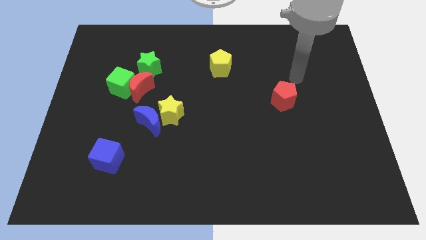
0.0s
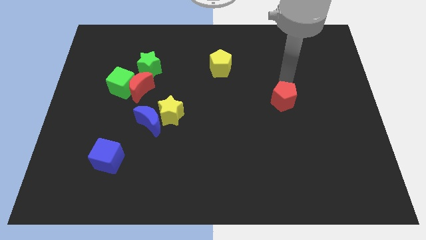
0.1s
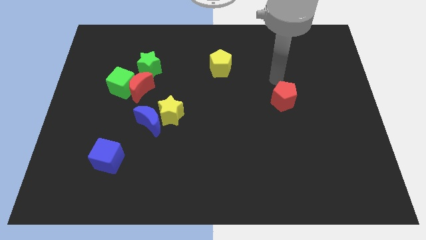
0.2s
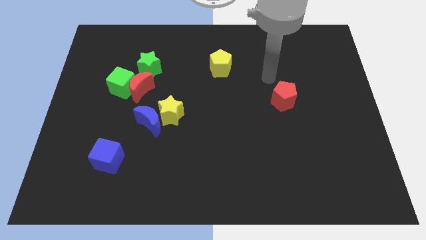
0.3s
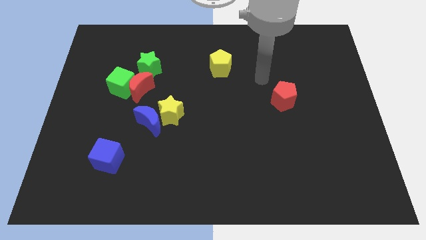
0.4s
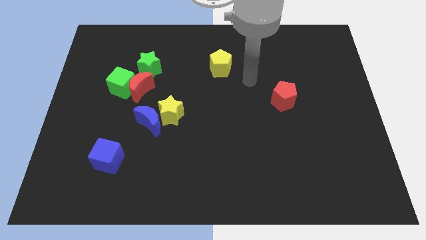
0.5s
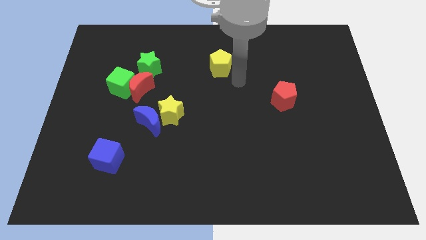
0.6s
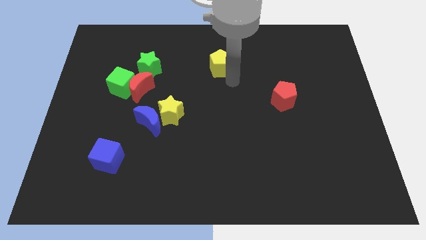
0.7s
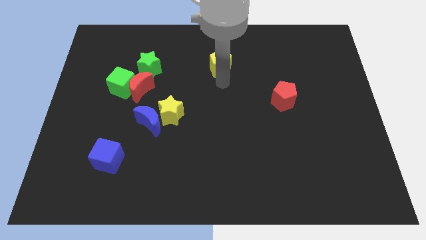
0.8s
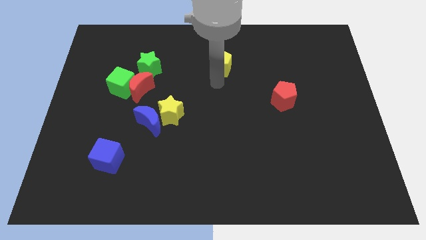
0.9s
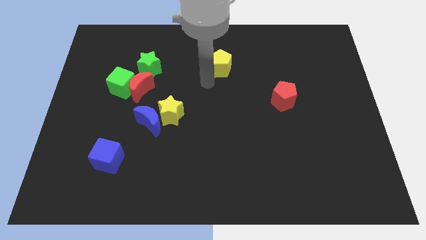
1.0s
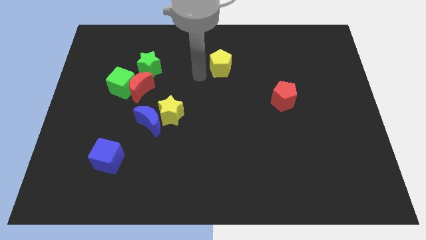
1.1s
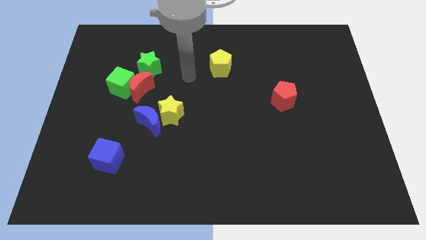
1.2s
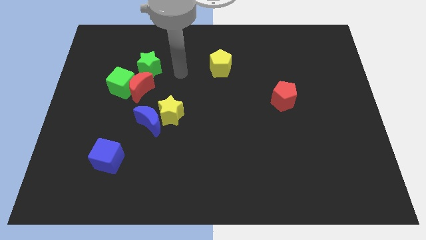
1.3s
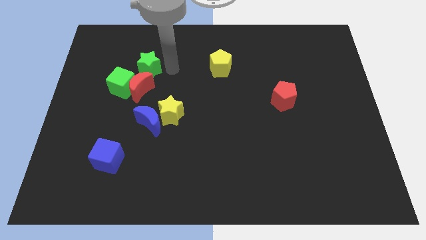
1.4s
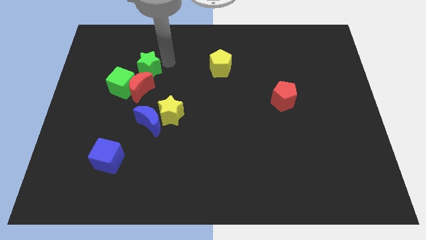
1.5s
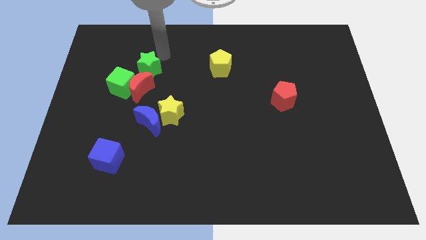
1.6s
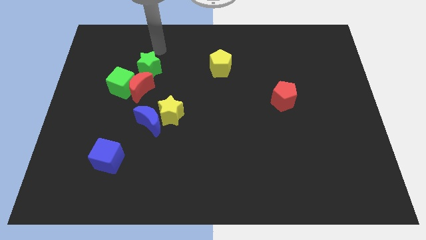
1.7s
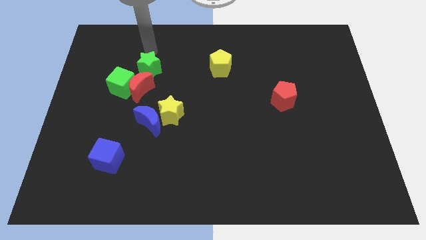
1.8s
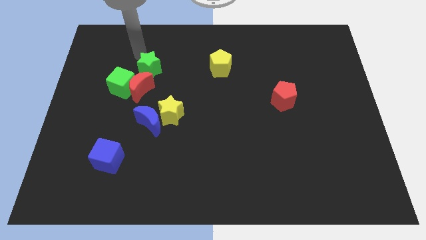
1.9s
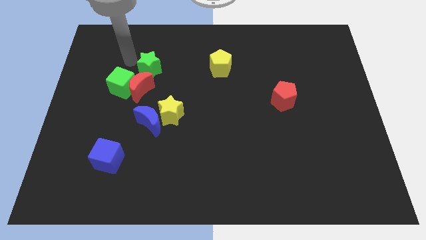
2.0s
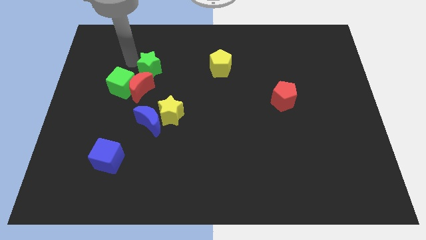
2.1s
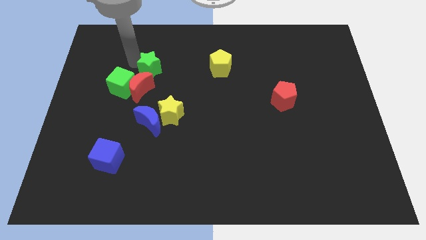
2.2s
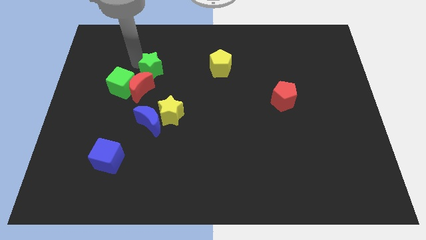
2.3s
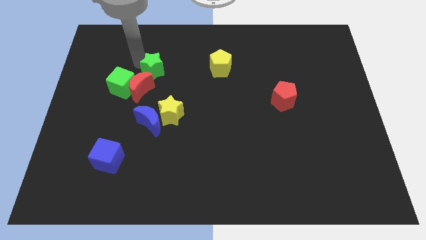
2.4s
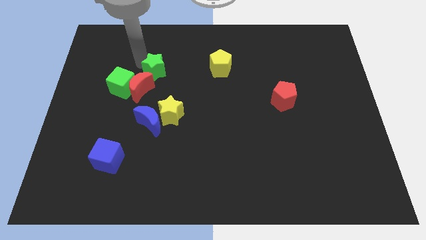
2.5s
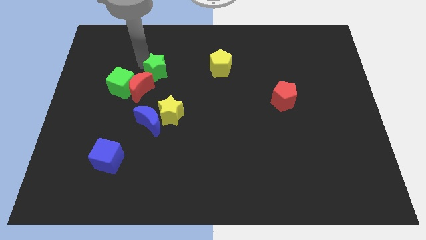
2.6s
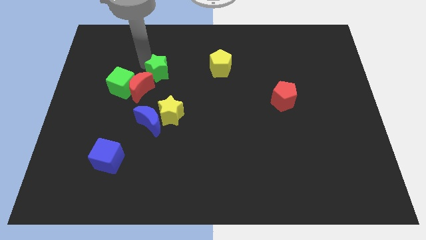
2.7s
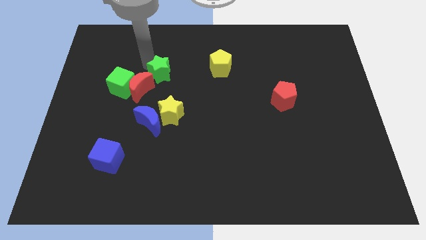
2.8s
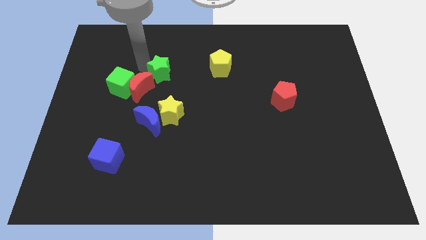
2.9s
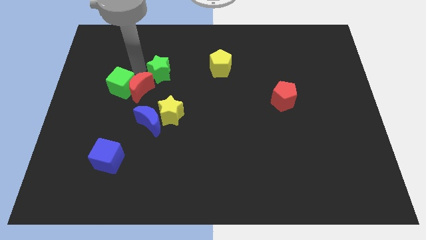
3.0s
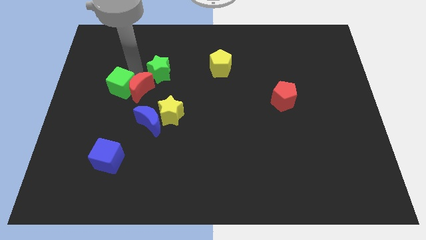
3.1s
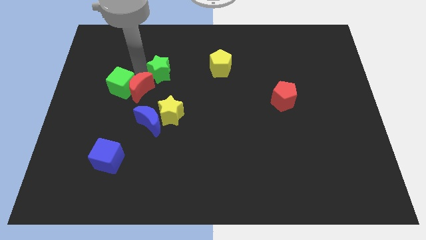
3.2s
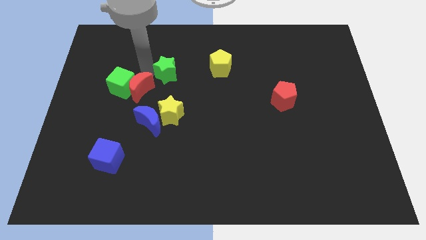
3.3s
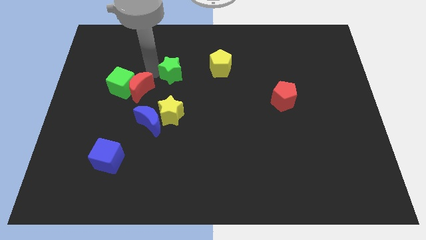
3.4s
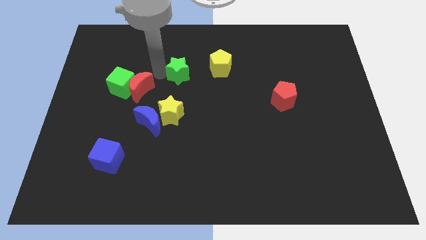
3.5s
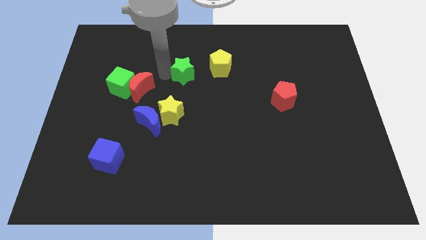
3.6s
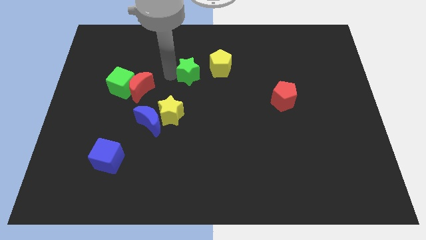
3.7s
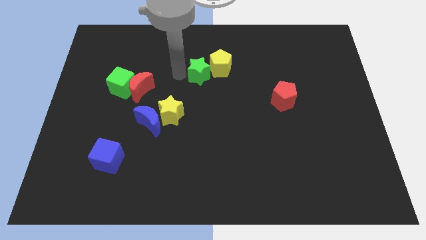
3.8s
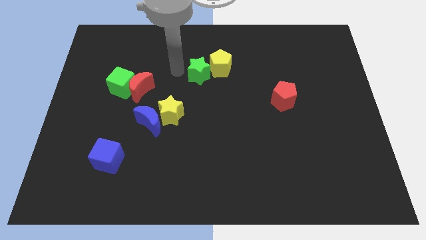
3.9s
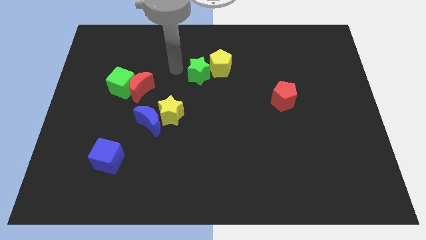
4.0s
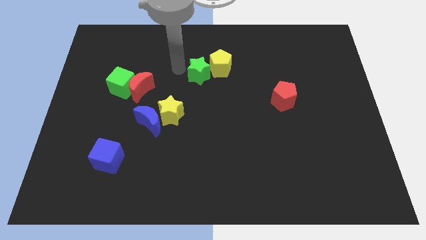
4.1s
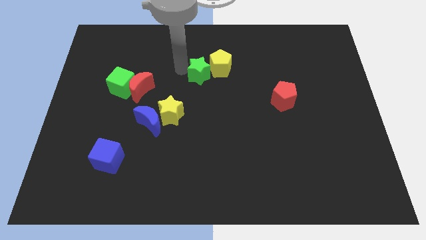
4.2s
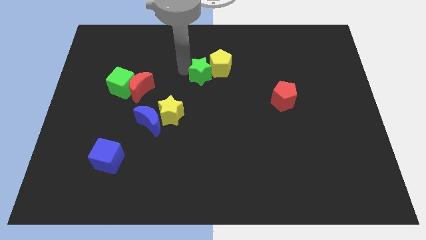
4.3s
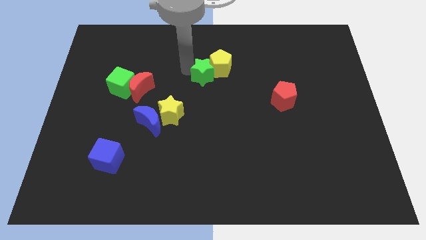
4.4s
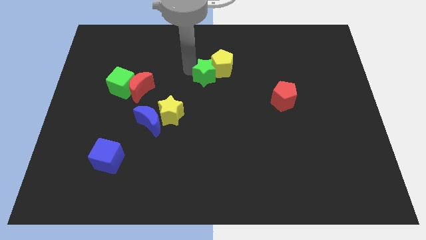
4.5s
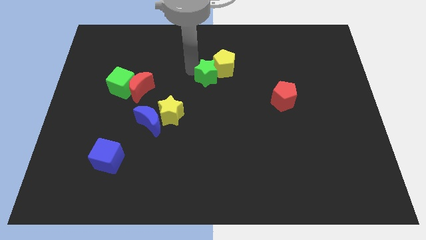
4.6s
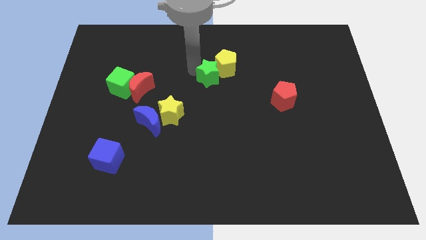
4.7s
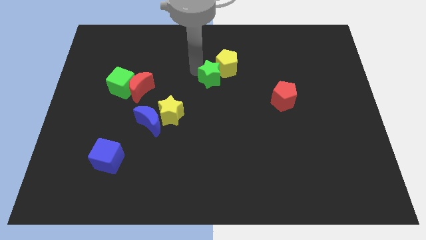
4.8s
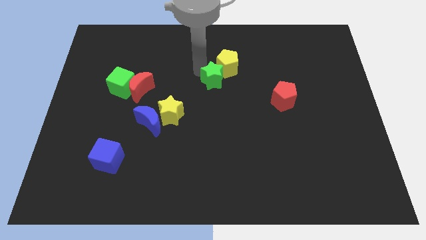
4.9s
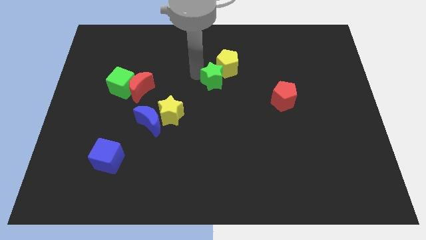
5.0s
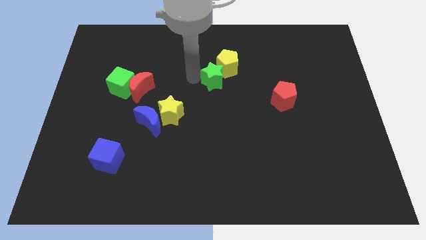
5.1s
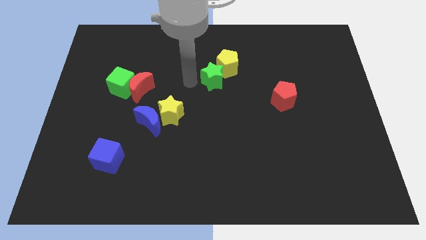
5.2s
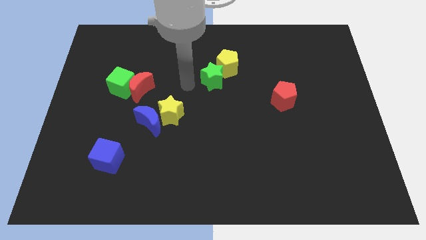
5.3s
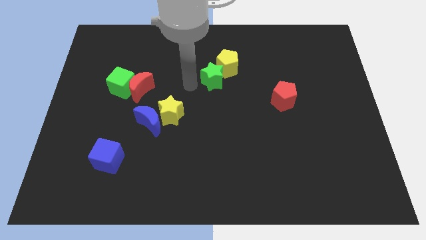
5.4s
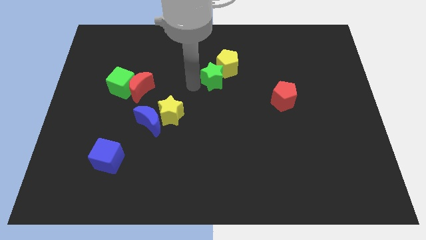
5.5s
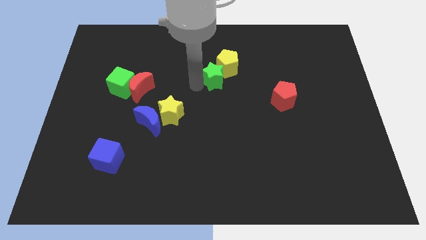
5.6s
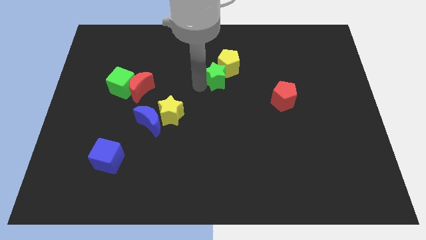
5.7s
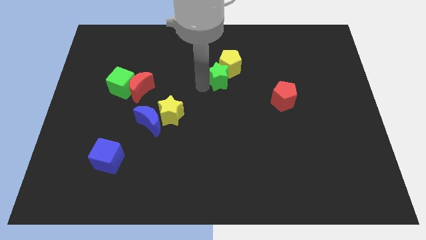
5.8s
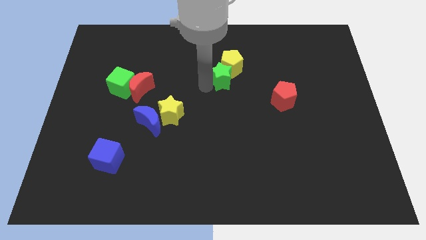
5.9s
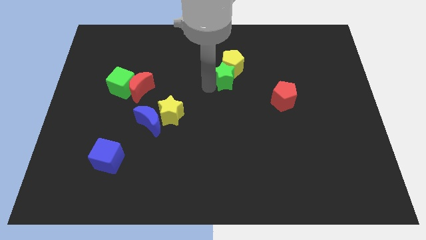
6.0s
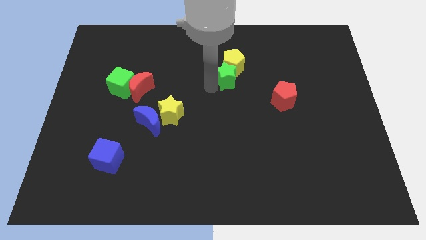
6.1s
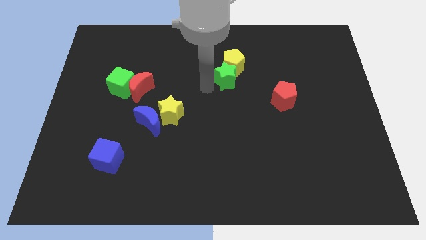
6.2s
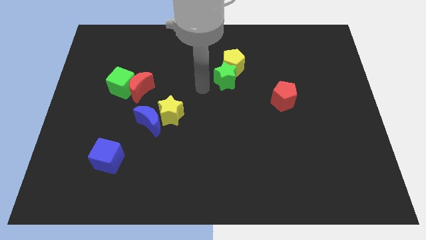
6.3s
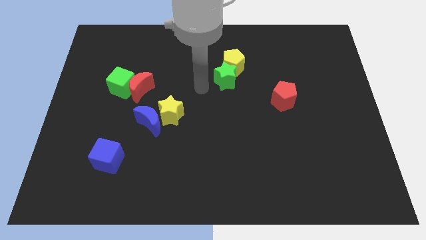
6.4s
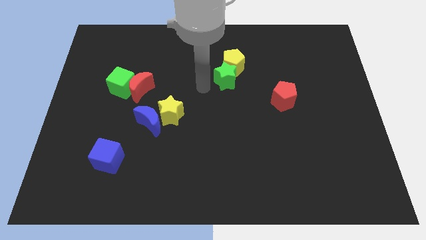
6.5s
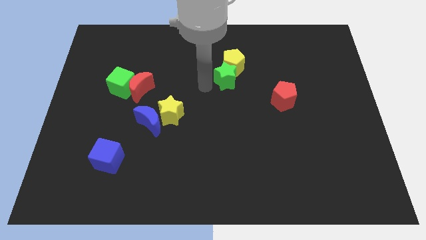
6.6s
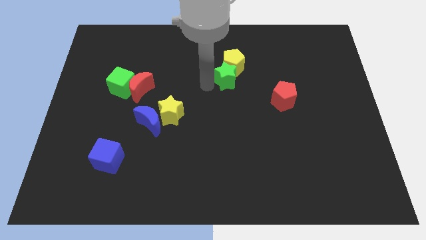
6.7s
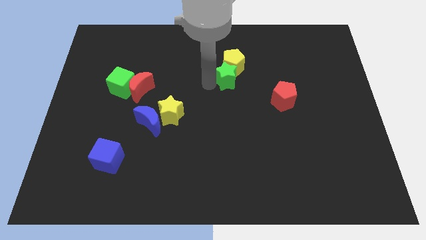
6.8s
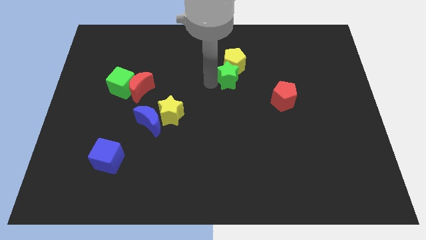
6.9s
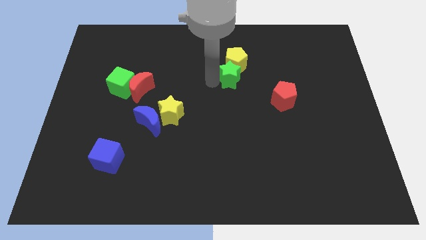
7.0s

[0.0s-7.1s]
slide the green star right

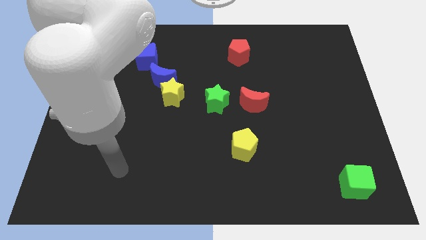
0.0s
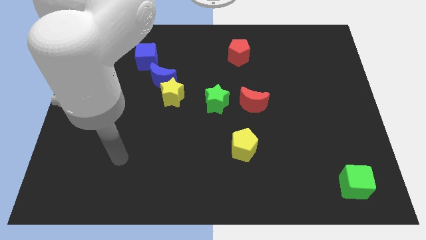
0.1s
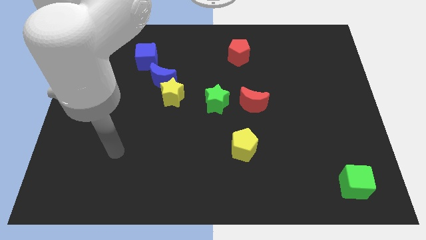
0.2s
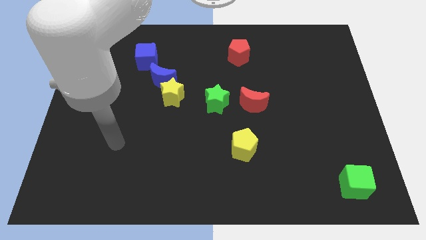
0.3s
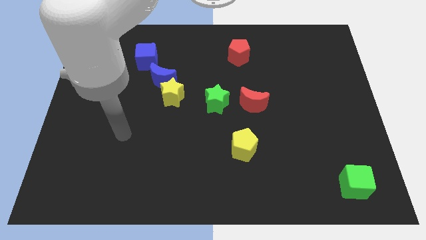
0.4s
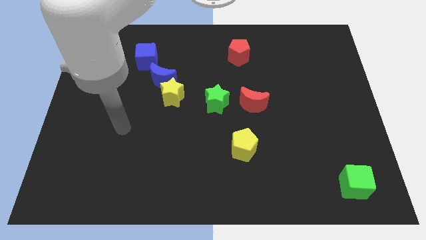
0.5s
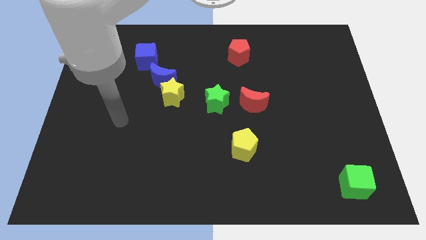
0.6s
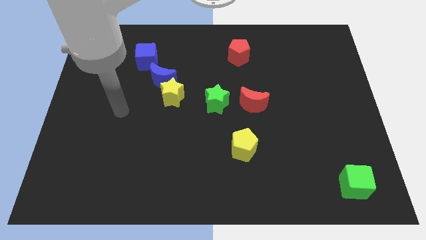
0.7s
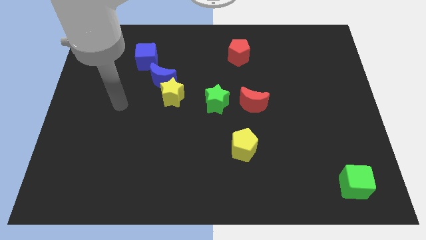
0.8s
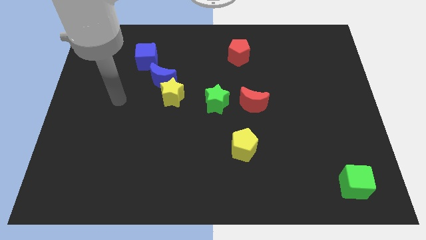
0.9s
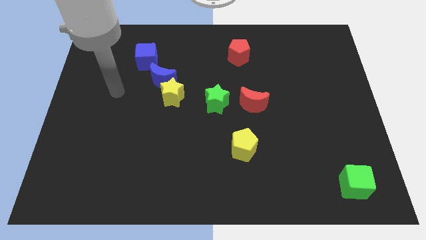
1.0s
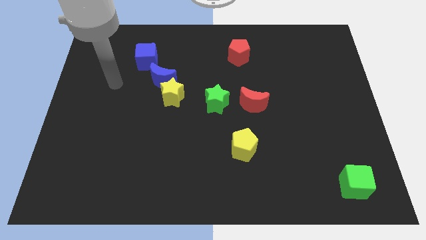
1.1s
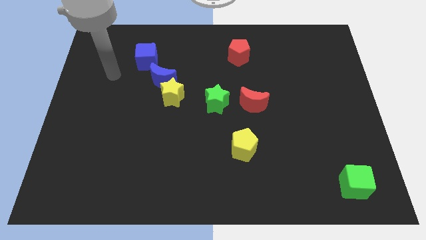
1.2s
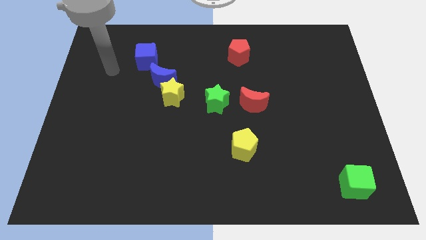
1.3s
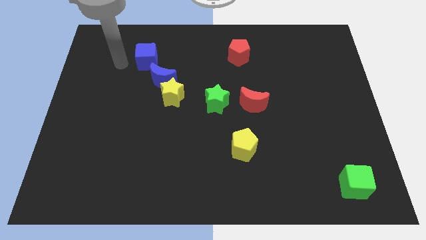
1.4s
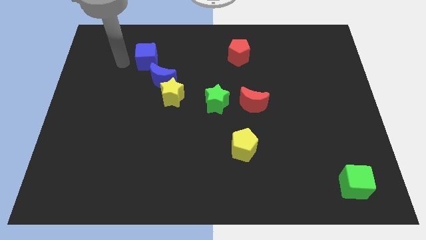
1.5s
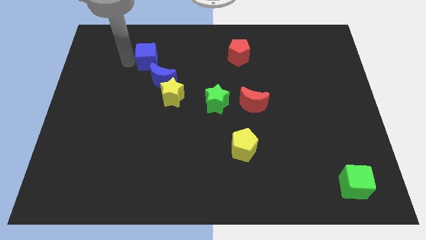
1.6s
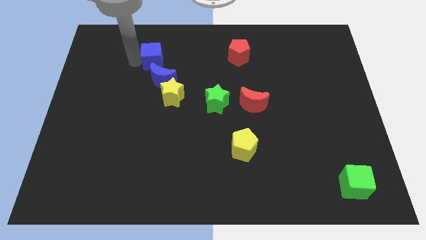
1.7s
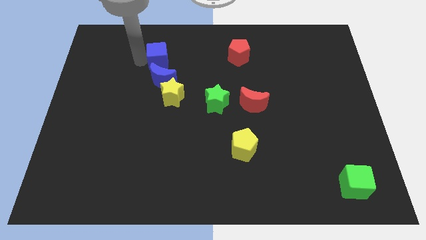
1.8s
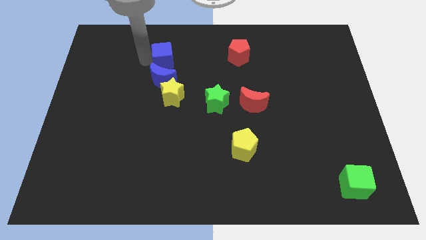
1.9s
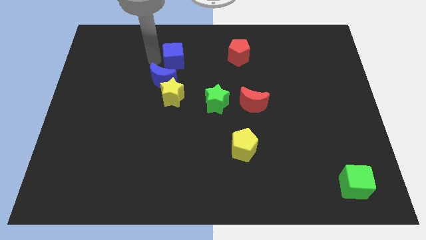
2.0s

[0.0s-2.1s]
move the blue cube somewhat right
